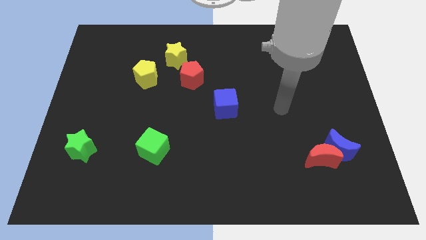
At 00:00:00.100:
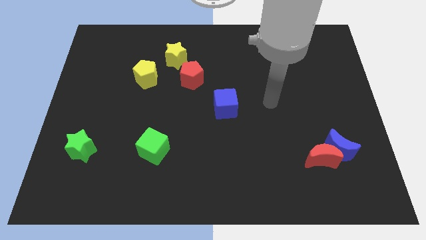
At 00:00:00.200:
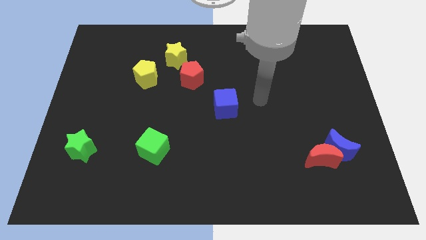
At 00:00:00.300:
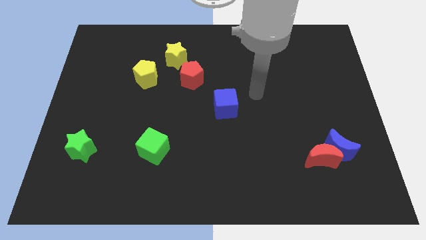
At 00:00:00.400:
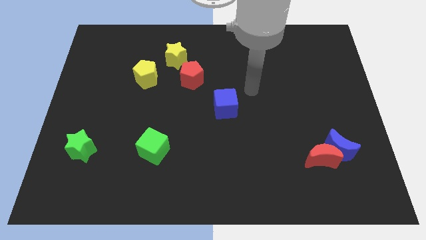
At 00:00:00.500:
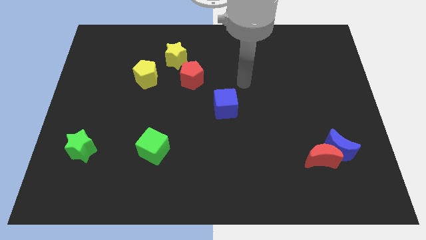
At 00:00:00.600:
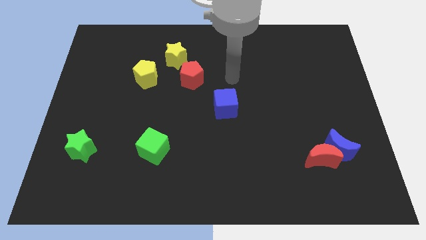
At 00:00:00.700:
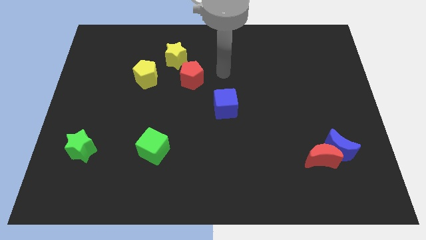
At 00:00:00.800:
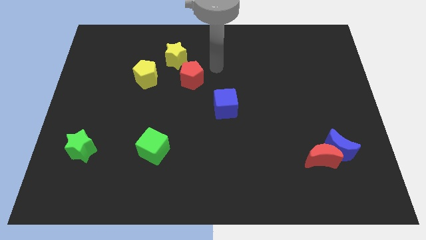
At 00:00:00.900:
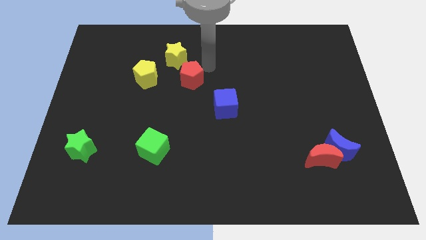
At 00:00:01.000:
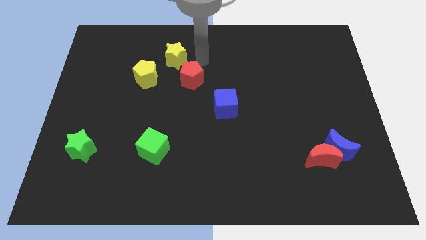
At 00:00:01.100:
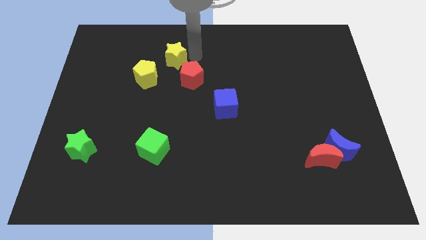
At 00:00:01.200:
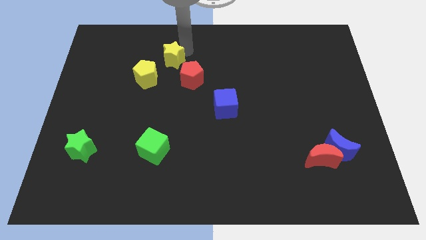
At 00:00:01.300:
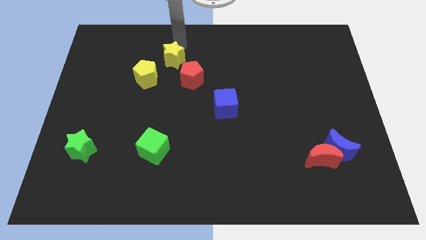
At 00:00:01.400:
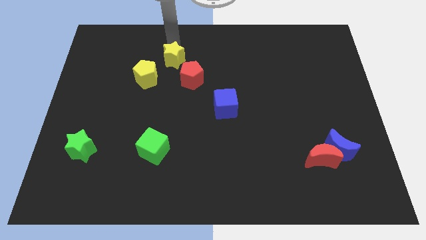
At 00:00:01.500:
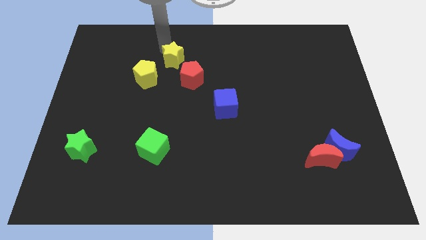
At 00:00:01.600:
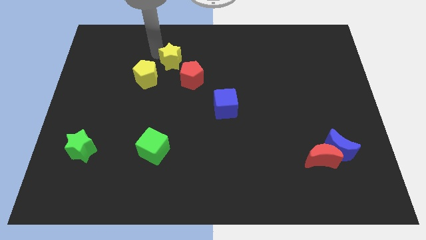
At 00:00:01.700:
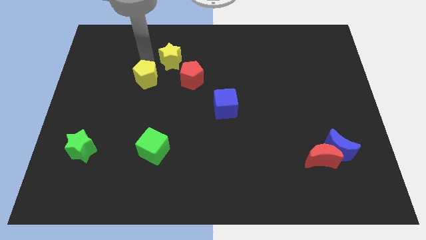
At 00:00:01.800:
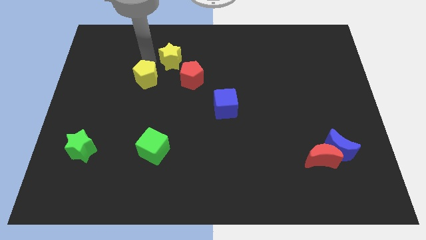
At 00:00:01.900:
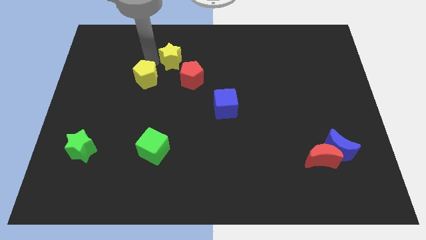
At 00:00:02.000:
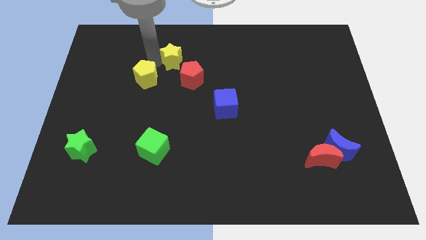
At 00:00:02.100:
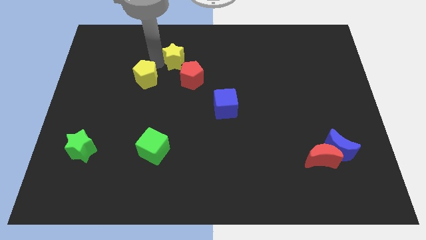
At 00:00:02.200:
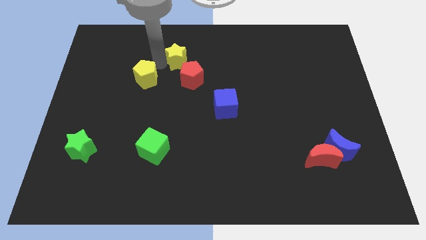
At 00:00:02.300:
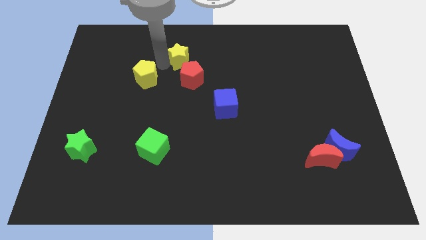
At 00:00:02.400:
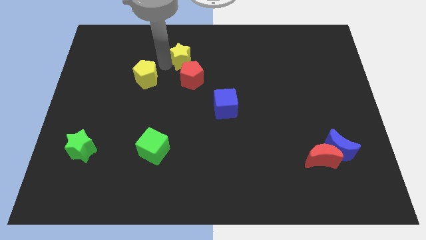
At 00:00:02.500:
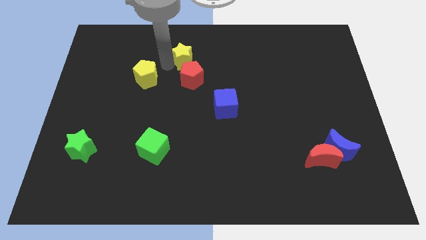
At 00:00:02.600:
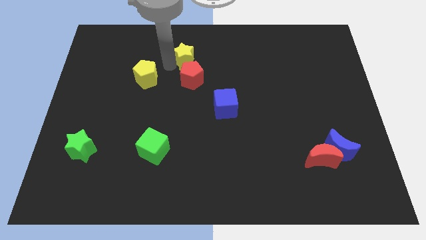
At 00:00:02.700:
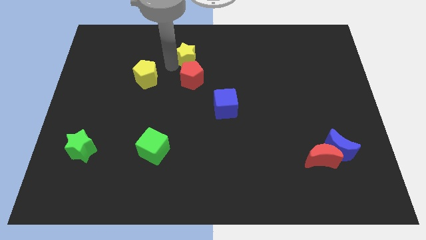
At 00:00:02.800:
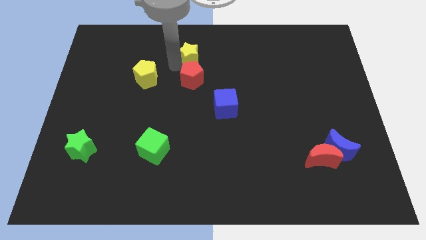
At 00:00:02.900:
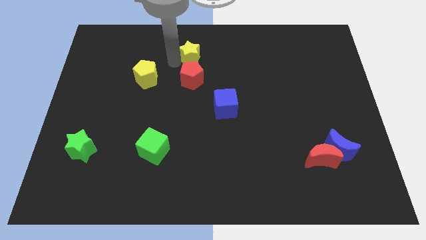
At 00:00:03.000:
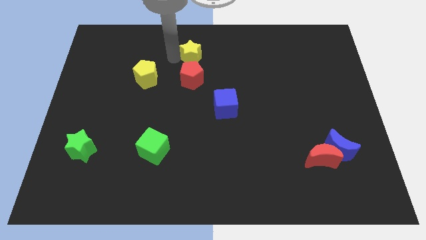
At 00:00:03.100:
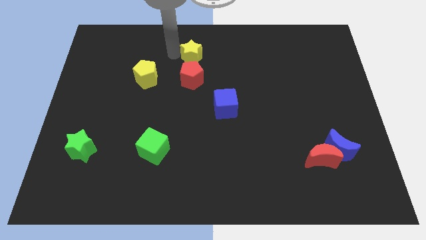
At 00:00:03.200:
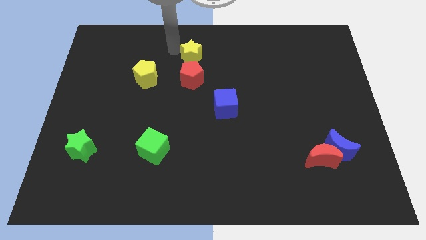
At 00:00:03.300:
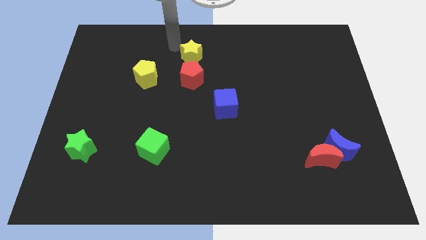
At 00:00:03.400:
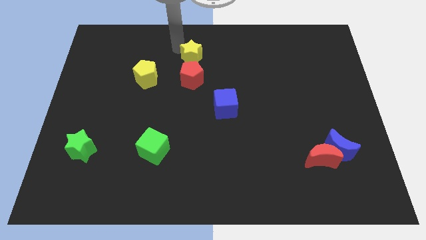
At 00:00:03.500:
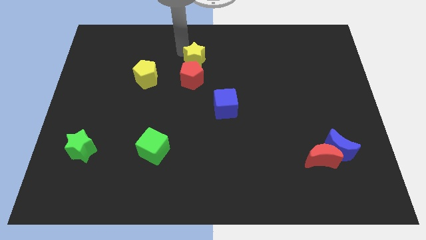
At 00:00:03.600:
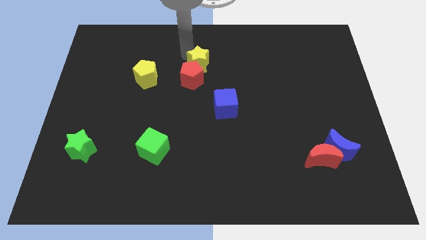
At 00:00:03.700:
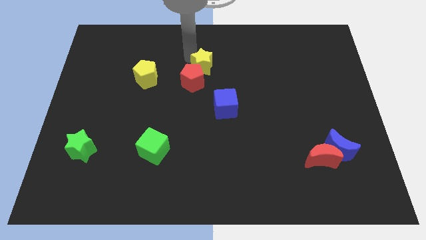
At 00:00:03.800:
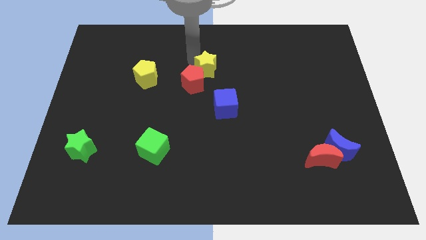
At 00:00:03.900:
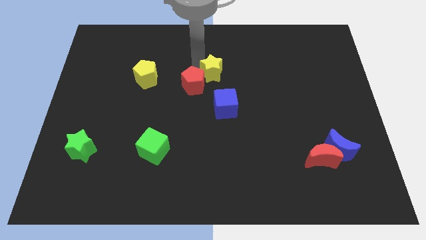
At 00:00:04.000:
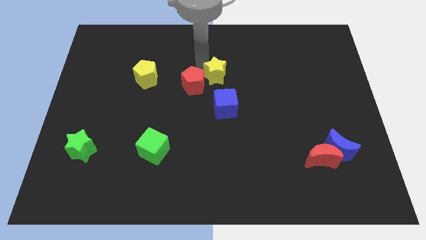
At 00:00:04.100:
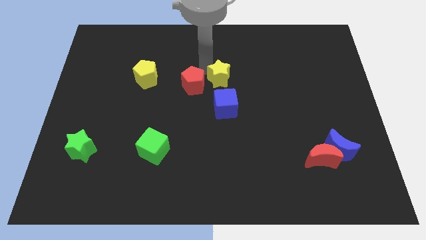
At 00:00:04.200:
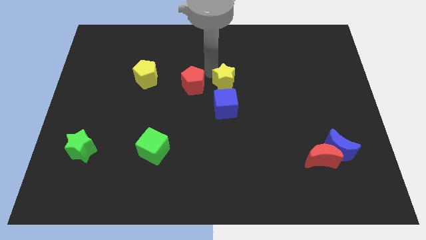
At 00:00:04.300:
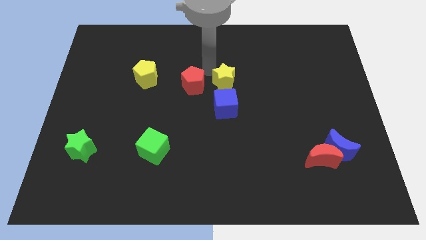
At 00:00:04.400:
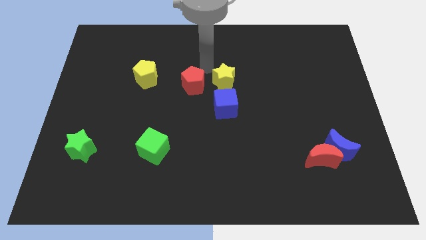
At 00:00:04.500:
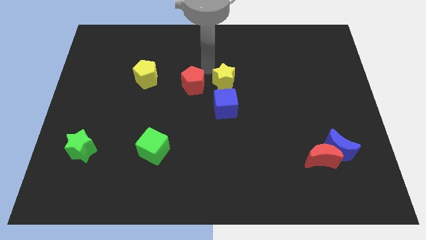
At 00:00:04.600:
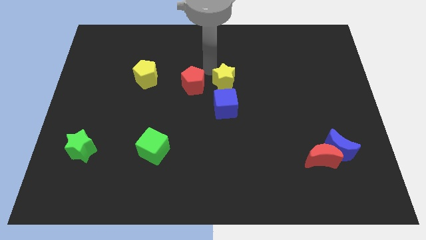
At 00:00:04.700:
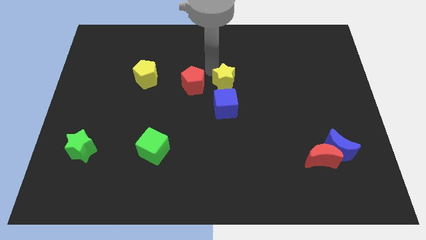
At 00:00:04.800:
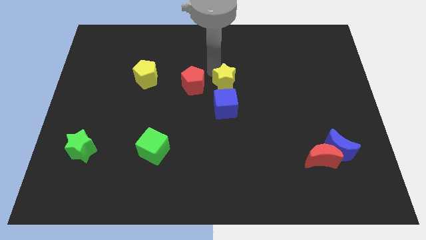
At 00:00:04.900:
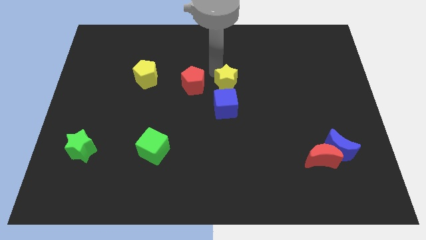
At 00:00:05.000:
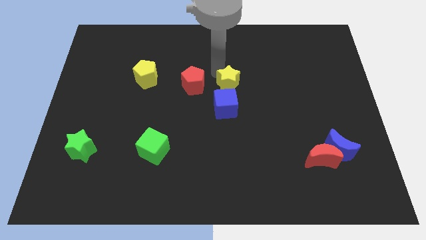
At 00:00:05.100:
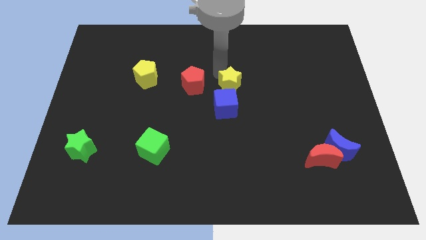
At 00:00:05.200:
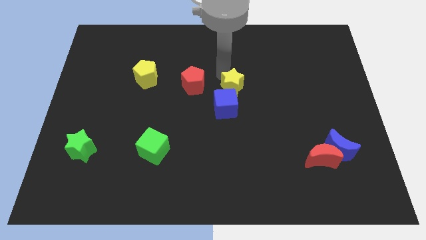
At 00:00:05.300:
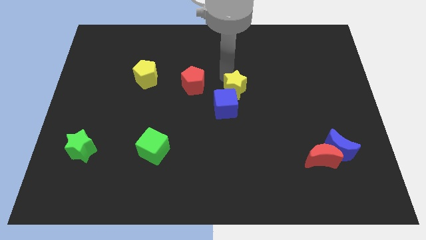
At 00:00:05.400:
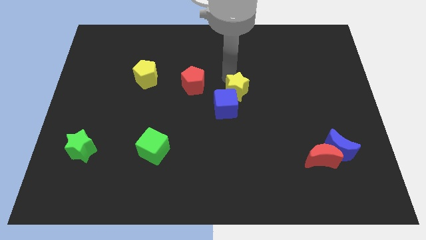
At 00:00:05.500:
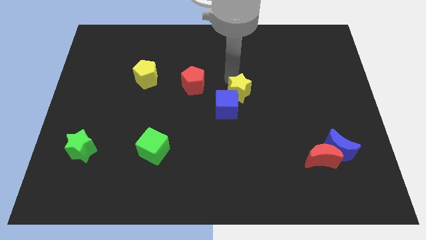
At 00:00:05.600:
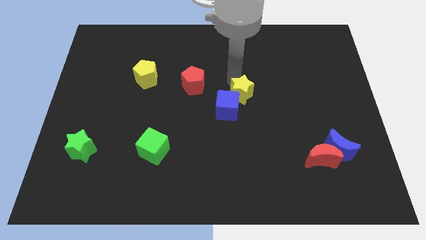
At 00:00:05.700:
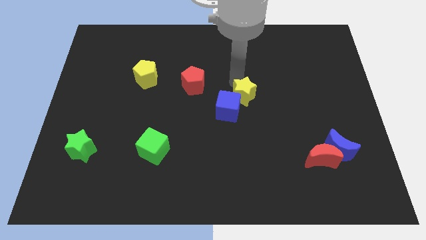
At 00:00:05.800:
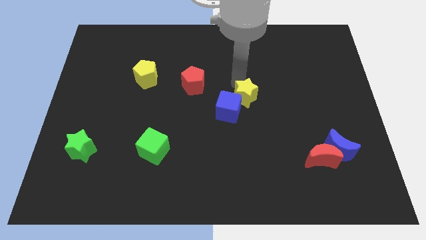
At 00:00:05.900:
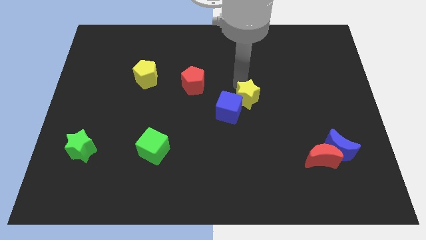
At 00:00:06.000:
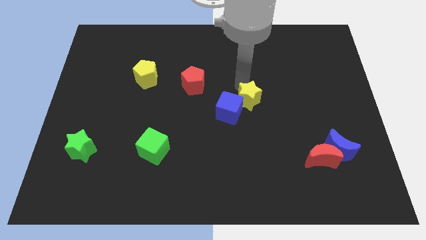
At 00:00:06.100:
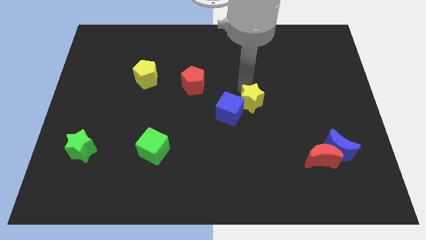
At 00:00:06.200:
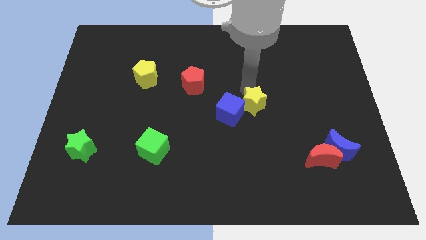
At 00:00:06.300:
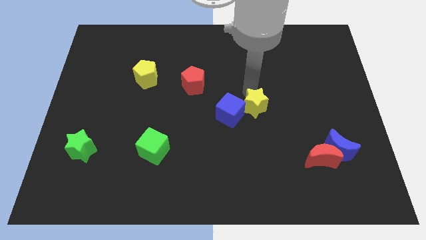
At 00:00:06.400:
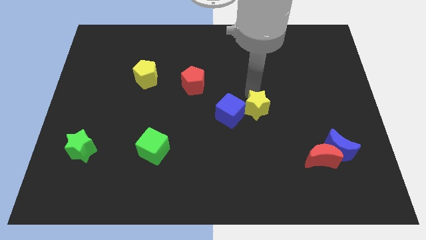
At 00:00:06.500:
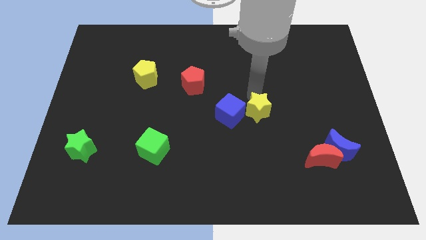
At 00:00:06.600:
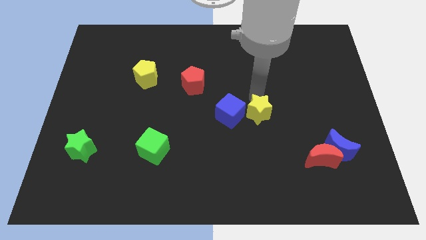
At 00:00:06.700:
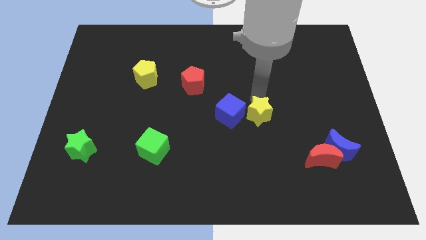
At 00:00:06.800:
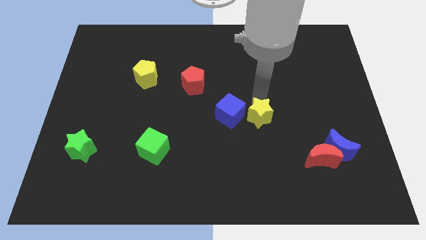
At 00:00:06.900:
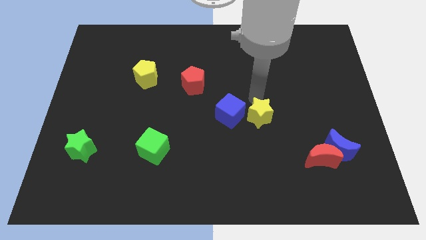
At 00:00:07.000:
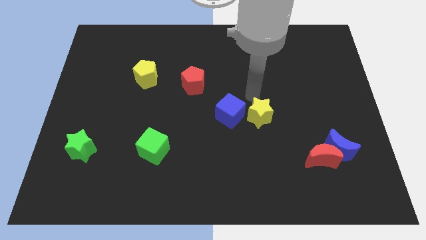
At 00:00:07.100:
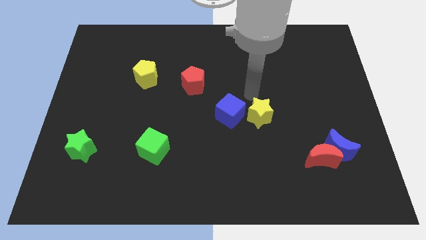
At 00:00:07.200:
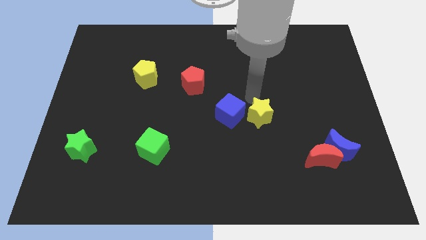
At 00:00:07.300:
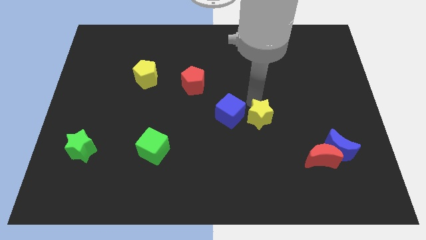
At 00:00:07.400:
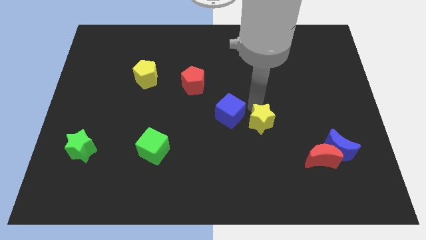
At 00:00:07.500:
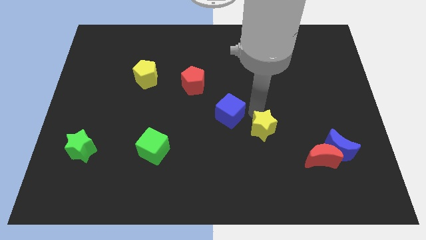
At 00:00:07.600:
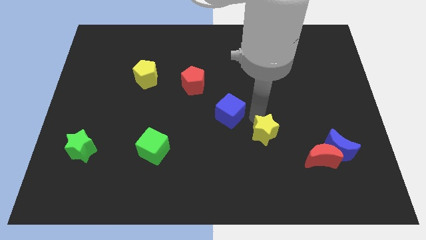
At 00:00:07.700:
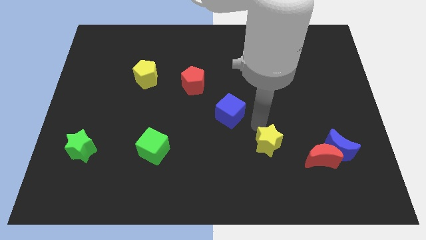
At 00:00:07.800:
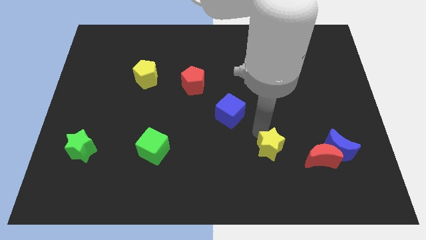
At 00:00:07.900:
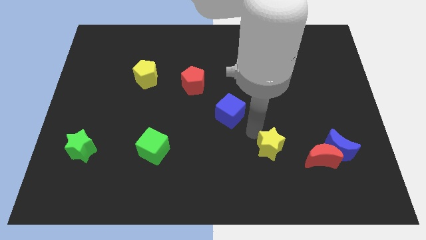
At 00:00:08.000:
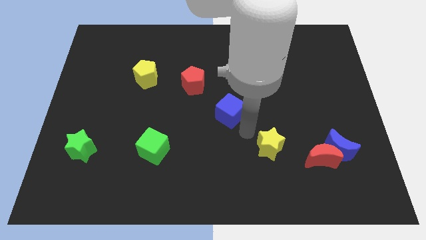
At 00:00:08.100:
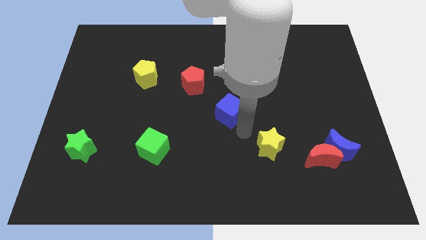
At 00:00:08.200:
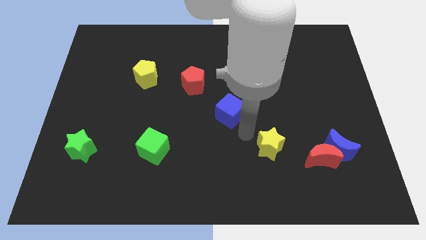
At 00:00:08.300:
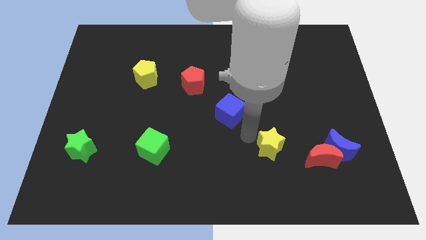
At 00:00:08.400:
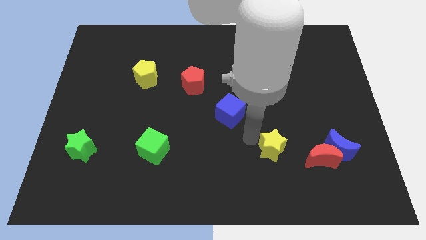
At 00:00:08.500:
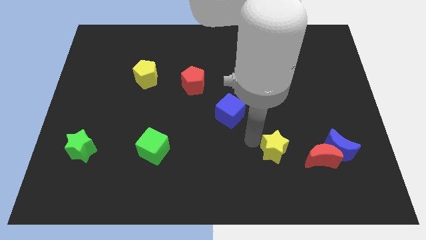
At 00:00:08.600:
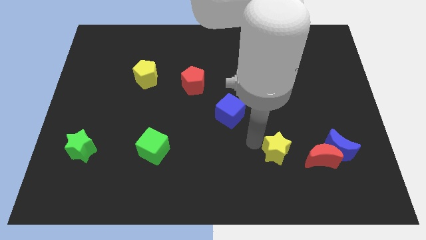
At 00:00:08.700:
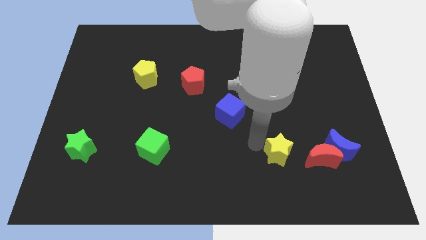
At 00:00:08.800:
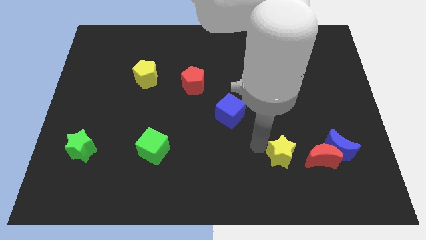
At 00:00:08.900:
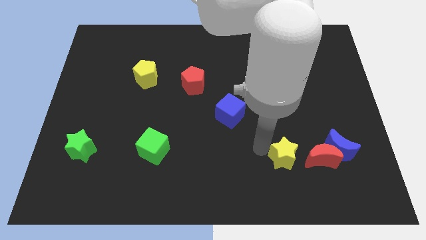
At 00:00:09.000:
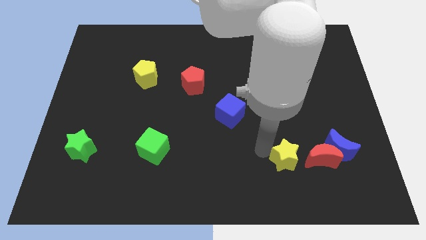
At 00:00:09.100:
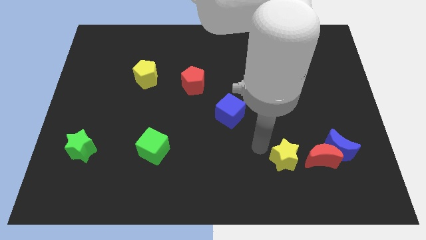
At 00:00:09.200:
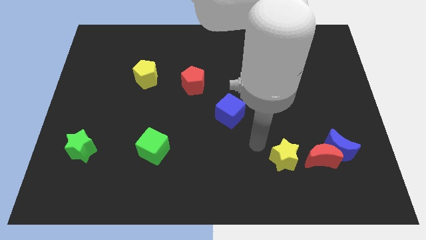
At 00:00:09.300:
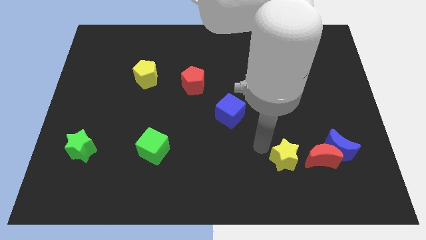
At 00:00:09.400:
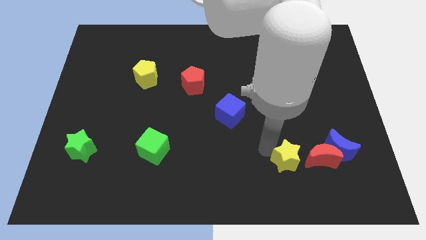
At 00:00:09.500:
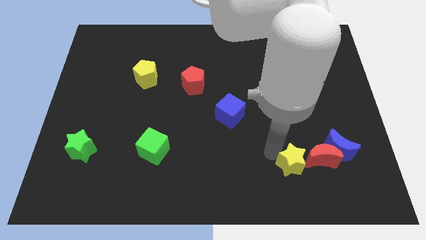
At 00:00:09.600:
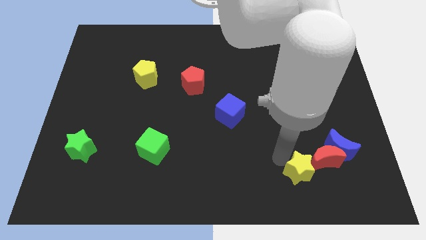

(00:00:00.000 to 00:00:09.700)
put the yellow star to the bottom left of the blue moon
